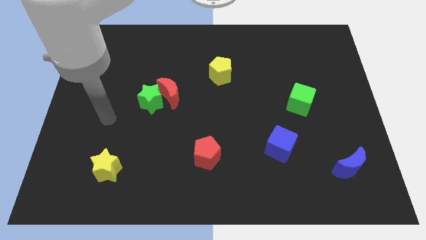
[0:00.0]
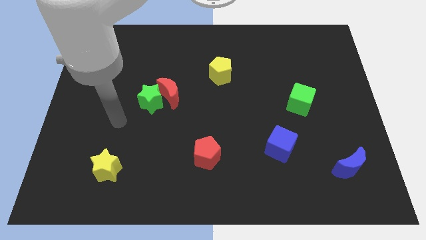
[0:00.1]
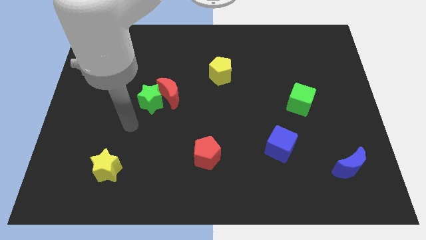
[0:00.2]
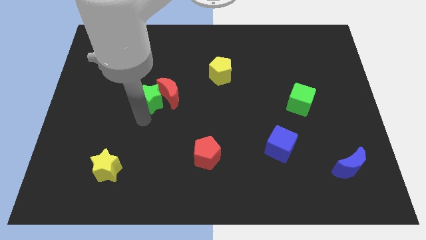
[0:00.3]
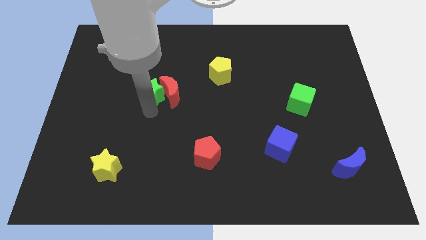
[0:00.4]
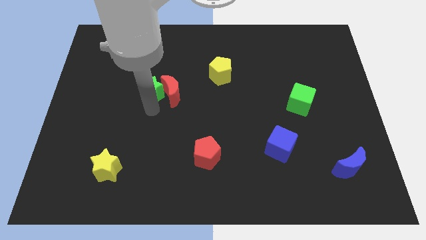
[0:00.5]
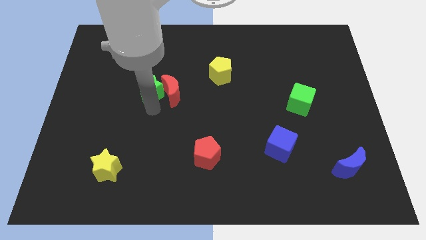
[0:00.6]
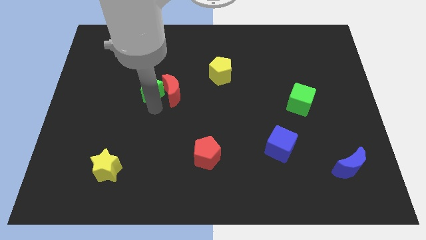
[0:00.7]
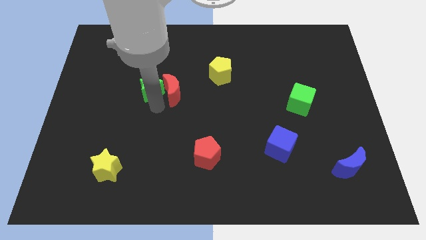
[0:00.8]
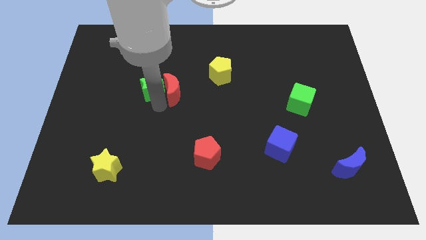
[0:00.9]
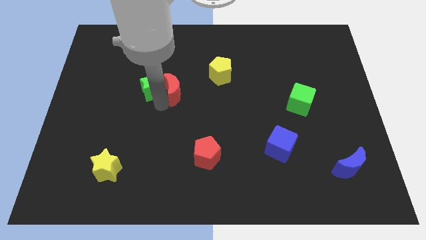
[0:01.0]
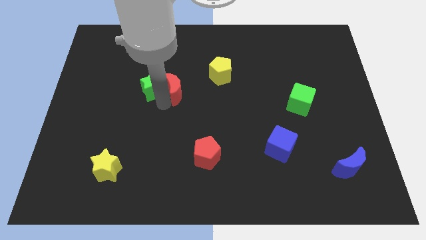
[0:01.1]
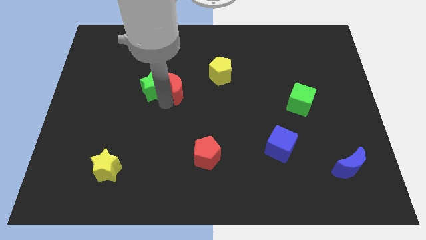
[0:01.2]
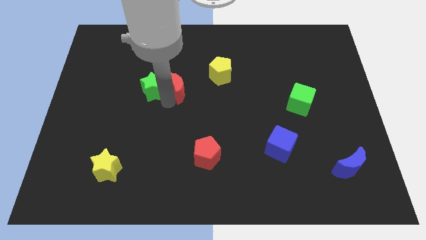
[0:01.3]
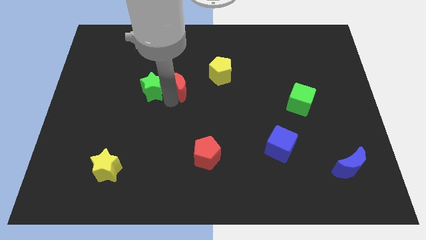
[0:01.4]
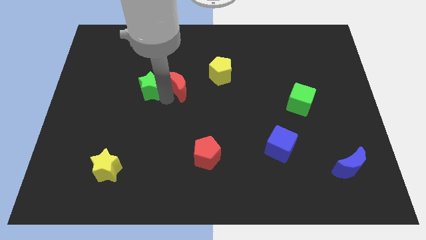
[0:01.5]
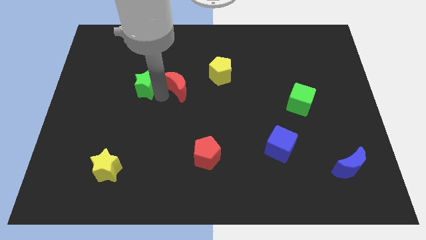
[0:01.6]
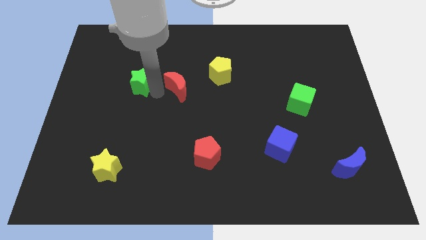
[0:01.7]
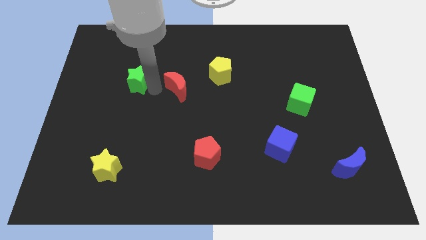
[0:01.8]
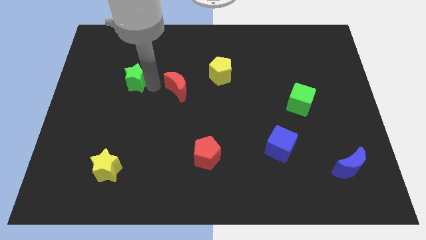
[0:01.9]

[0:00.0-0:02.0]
move the red moon away from the green star

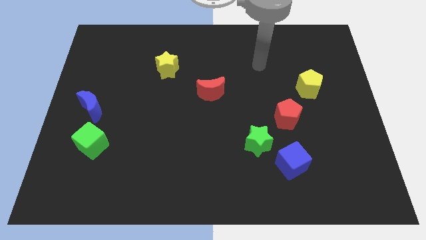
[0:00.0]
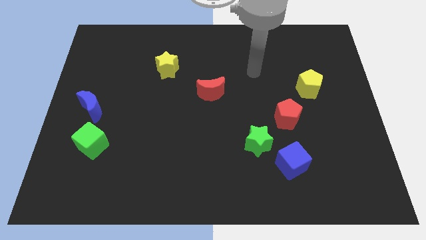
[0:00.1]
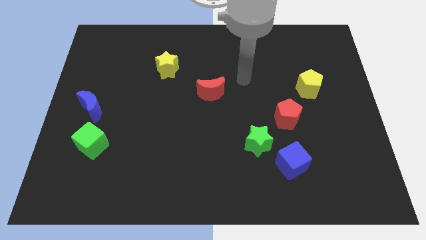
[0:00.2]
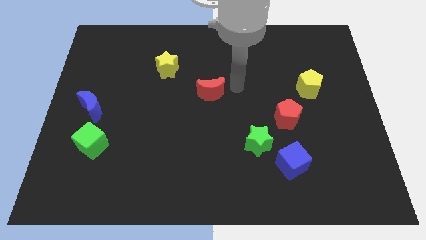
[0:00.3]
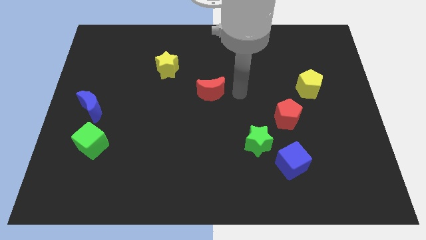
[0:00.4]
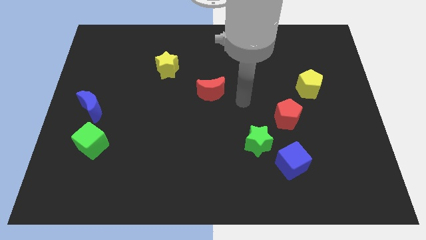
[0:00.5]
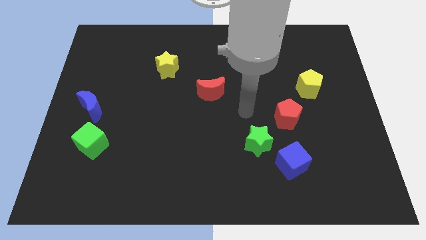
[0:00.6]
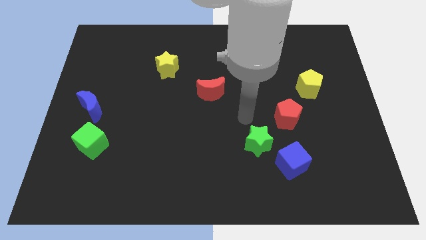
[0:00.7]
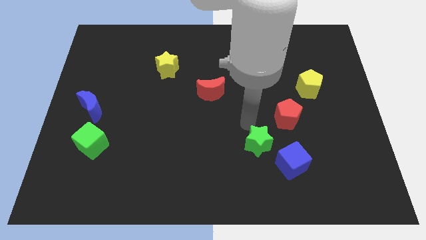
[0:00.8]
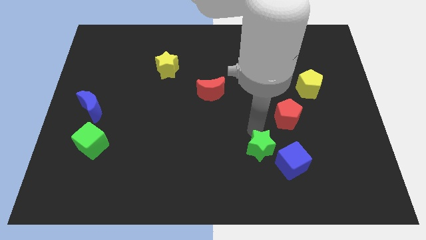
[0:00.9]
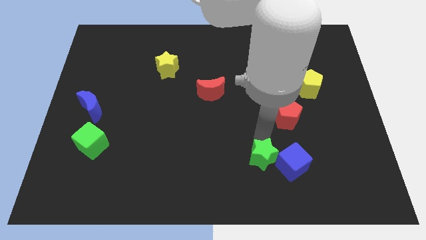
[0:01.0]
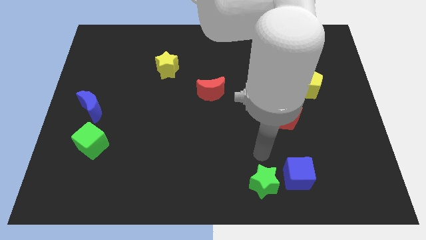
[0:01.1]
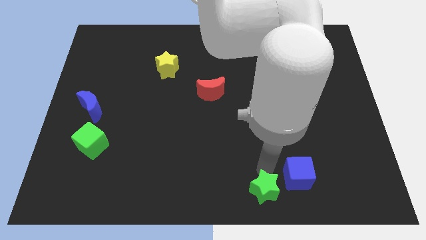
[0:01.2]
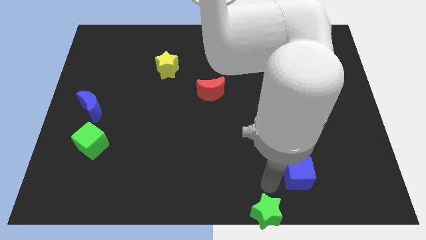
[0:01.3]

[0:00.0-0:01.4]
pull the blue cube apart from the green star

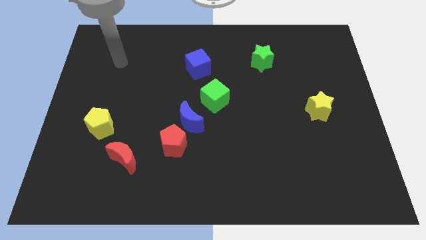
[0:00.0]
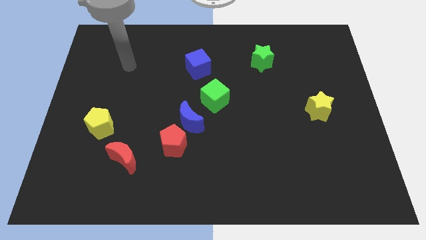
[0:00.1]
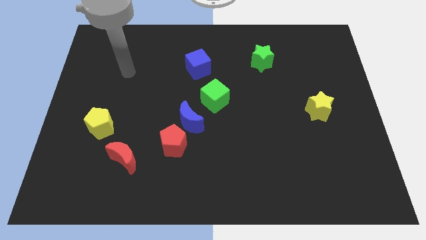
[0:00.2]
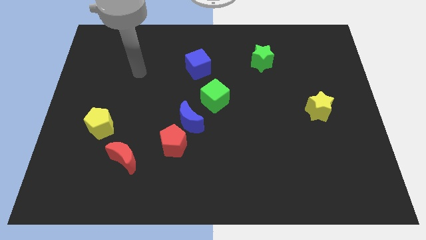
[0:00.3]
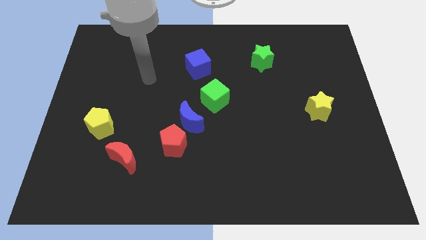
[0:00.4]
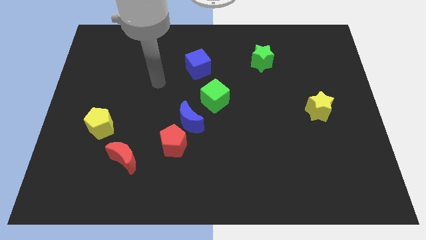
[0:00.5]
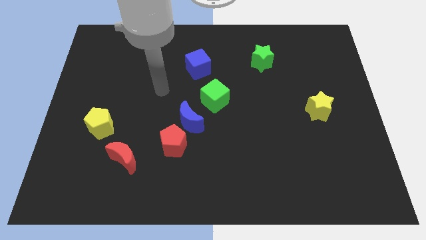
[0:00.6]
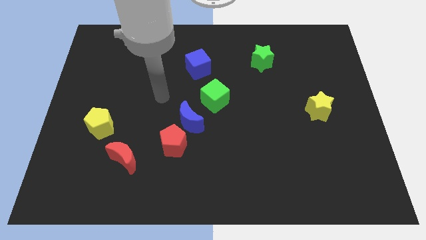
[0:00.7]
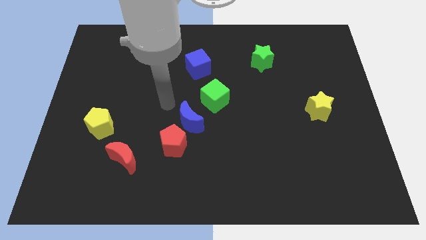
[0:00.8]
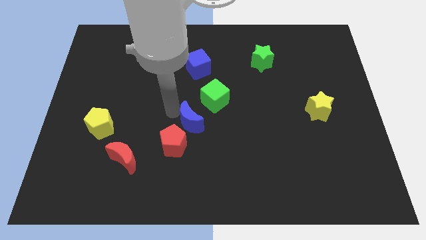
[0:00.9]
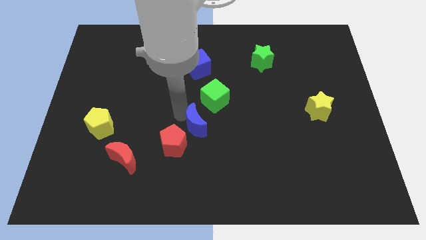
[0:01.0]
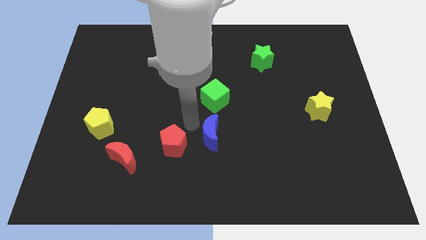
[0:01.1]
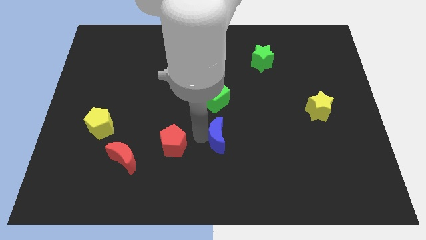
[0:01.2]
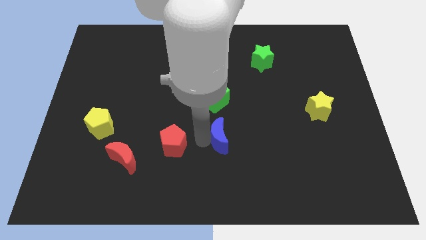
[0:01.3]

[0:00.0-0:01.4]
pull the red pentagon apart from the blue moon

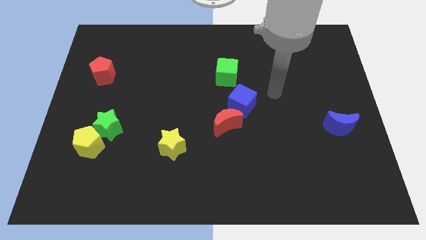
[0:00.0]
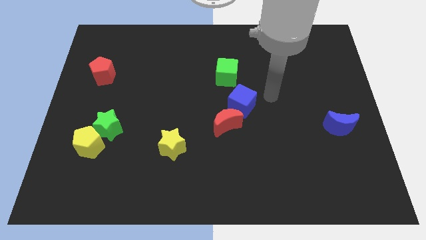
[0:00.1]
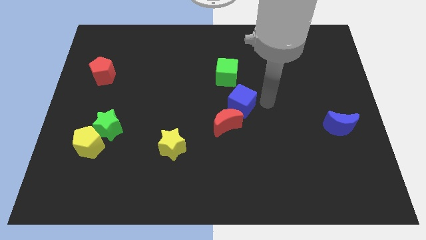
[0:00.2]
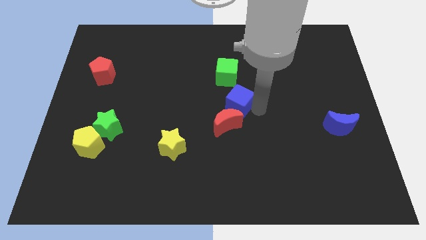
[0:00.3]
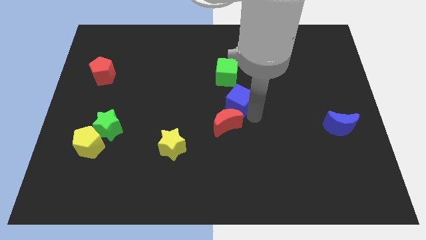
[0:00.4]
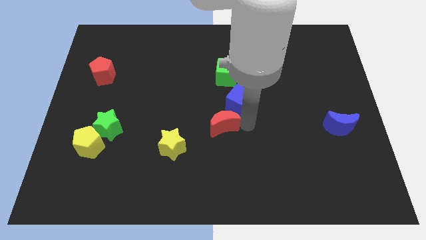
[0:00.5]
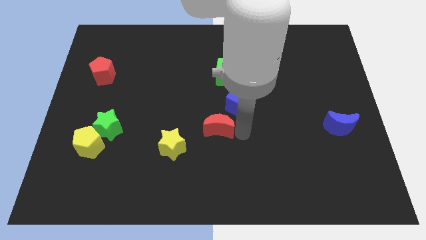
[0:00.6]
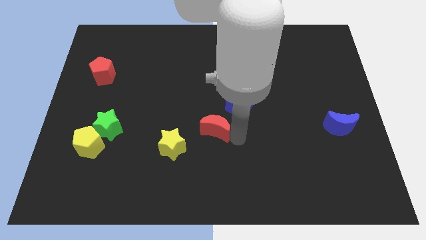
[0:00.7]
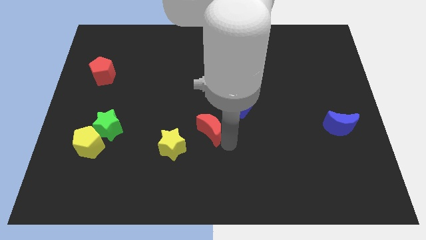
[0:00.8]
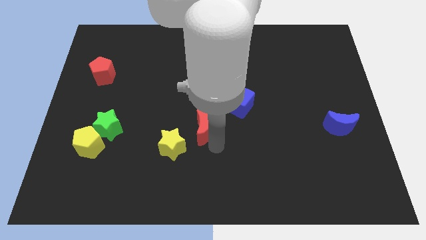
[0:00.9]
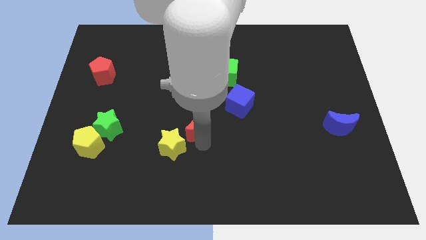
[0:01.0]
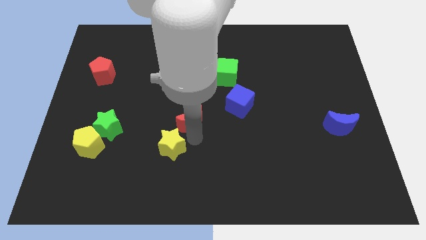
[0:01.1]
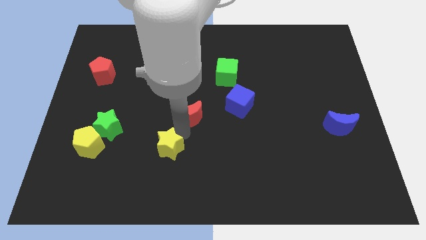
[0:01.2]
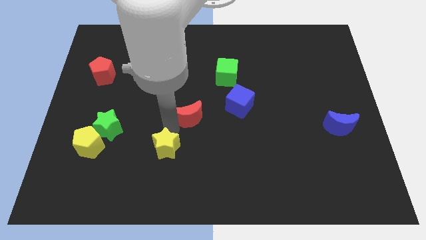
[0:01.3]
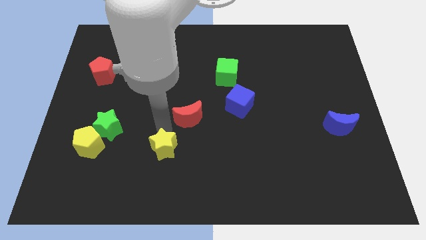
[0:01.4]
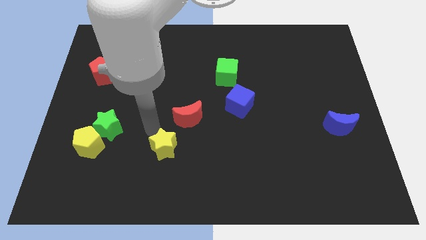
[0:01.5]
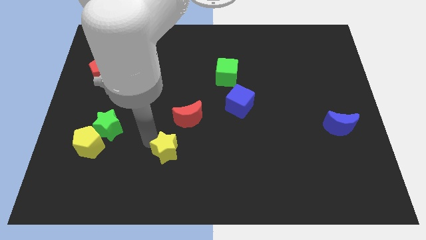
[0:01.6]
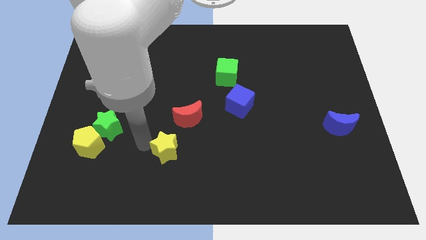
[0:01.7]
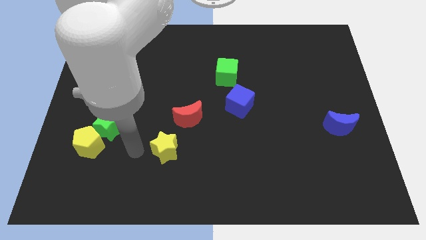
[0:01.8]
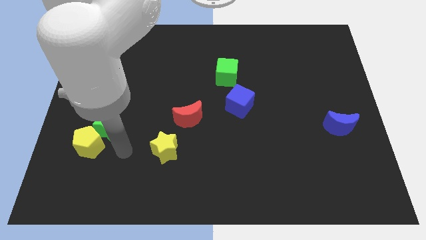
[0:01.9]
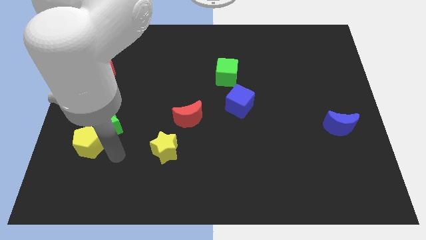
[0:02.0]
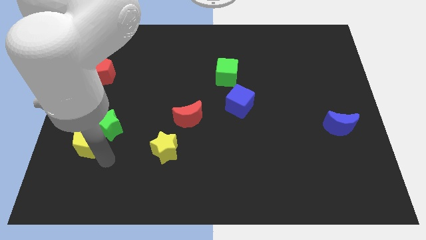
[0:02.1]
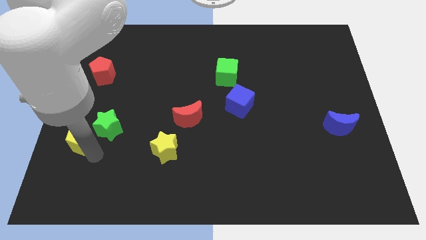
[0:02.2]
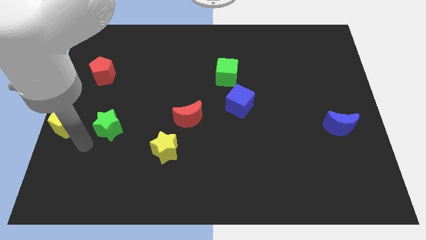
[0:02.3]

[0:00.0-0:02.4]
pull the green star apart from the yellow pentagon

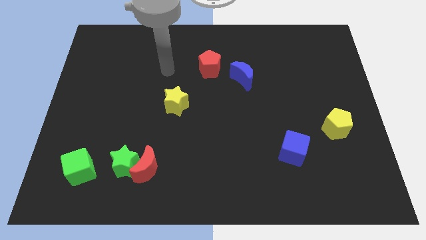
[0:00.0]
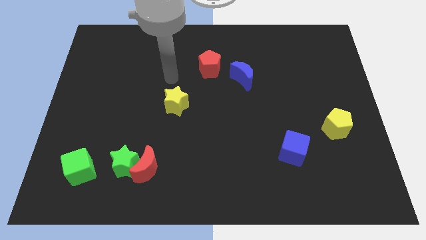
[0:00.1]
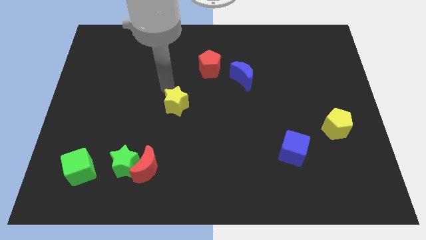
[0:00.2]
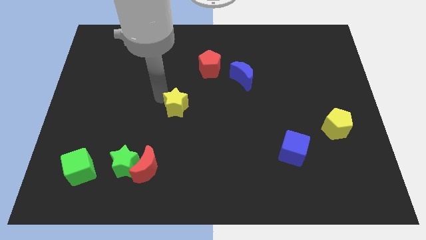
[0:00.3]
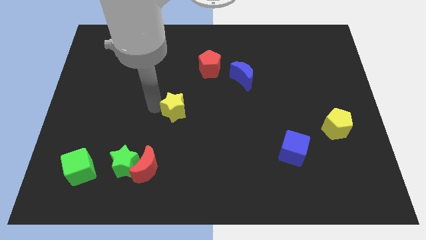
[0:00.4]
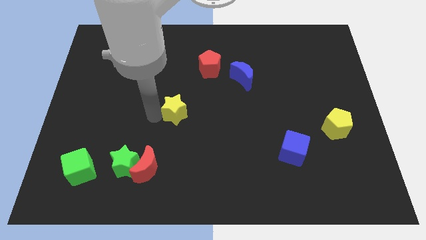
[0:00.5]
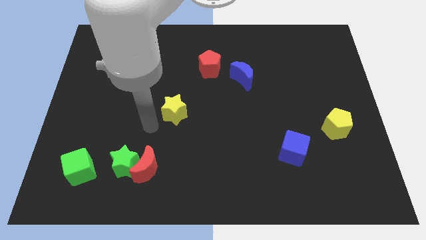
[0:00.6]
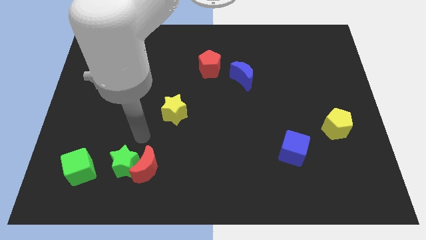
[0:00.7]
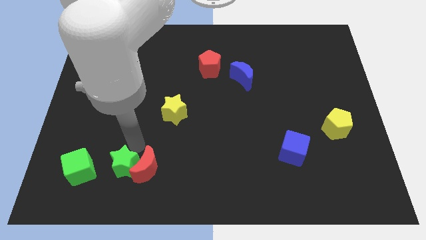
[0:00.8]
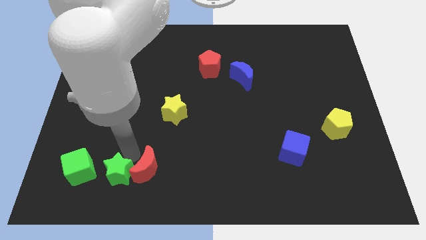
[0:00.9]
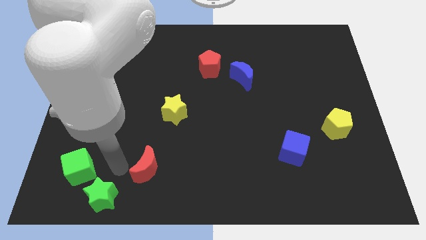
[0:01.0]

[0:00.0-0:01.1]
pull the red moon apart from the green star

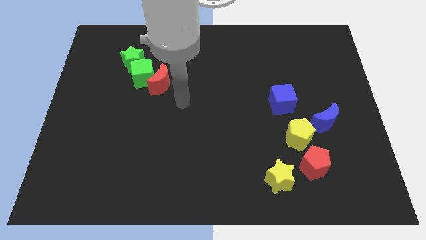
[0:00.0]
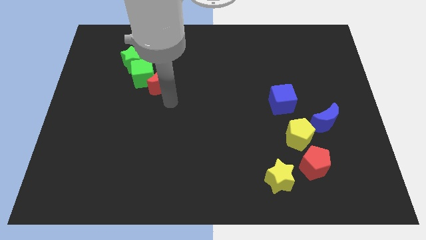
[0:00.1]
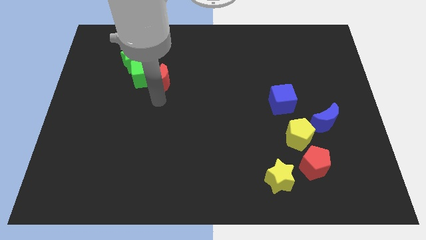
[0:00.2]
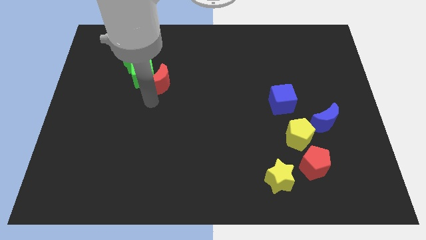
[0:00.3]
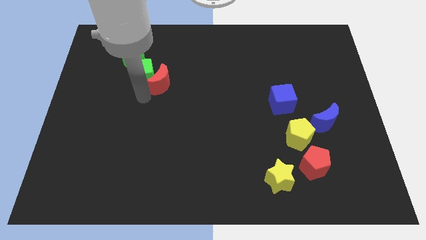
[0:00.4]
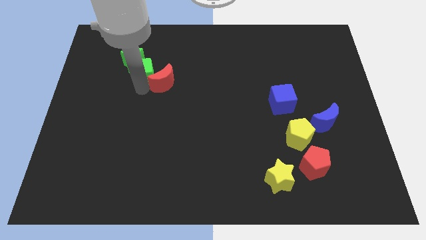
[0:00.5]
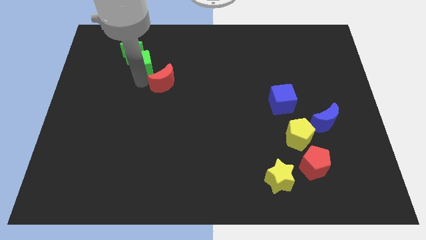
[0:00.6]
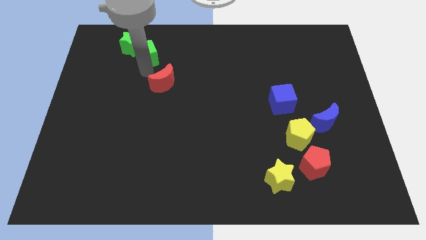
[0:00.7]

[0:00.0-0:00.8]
separate the red moon from the green cube
